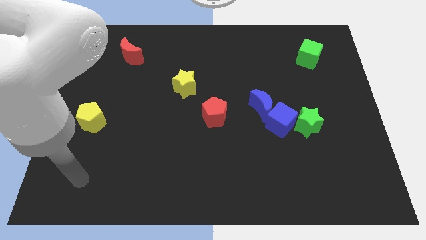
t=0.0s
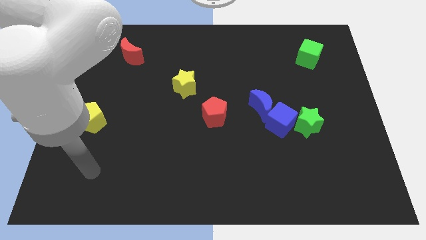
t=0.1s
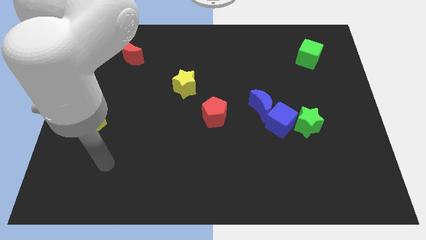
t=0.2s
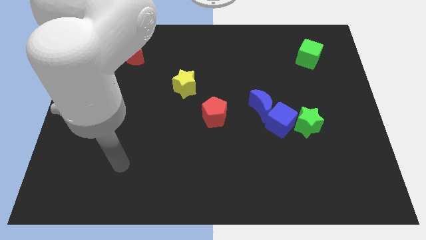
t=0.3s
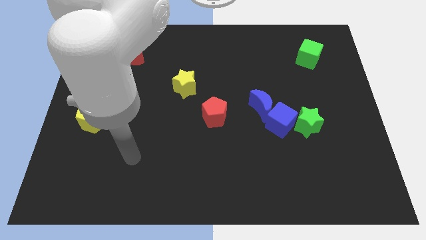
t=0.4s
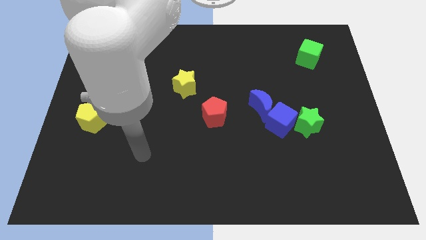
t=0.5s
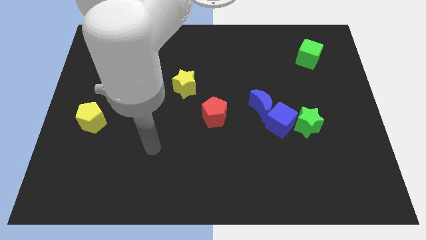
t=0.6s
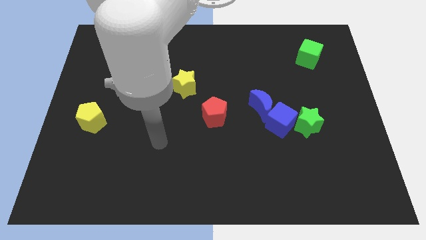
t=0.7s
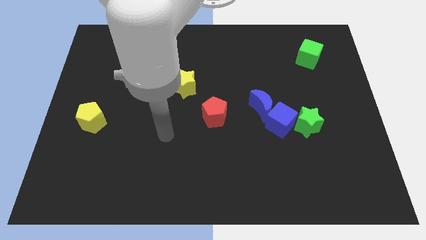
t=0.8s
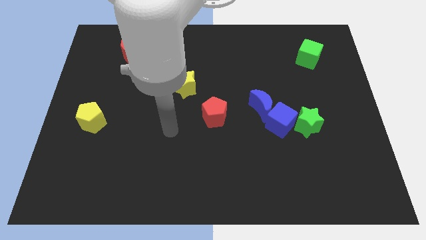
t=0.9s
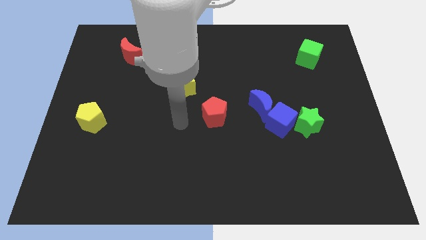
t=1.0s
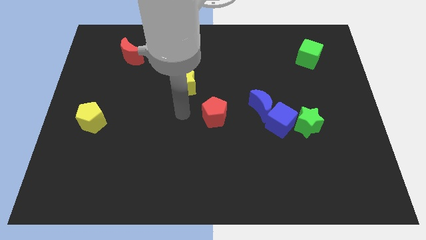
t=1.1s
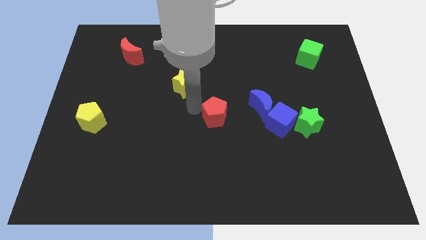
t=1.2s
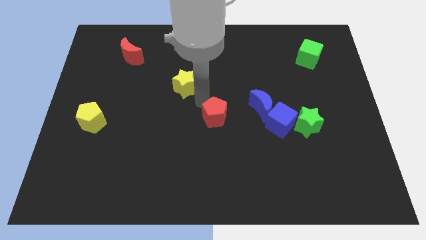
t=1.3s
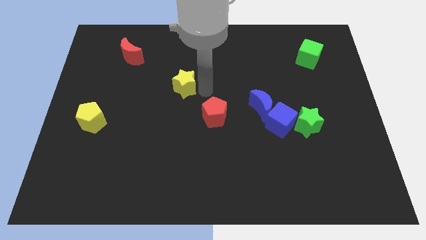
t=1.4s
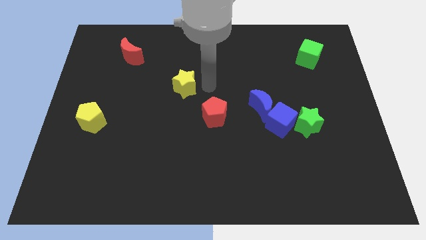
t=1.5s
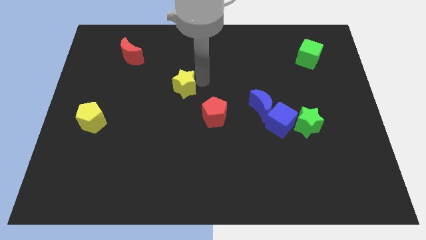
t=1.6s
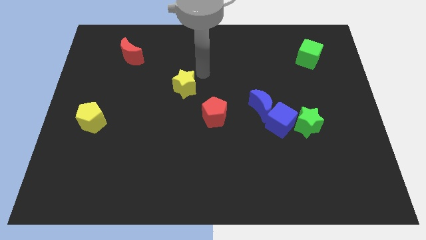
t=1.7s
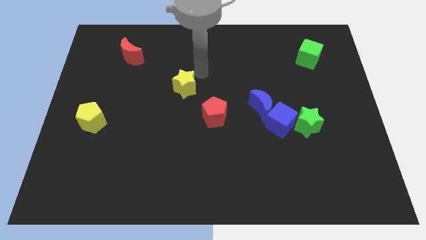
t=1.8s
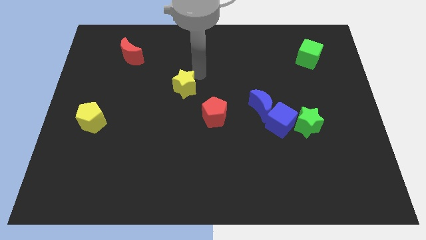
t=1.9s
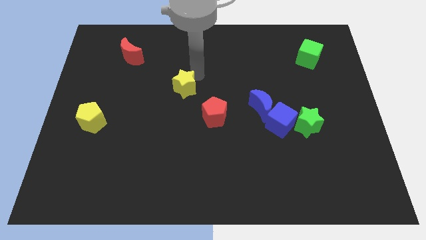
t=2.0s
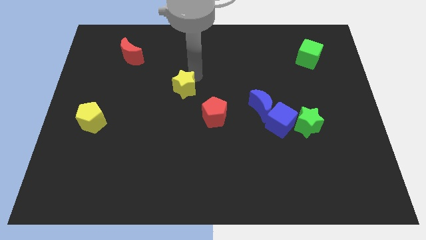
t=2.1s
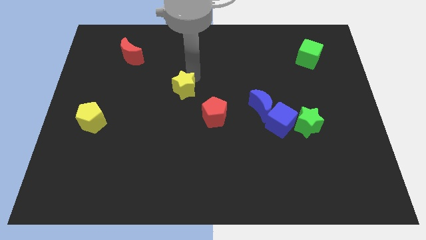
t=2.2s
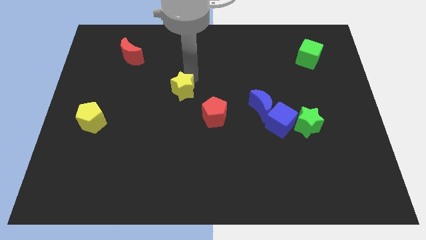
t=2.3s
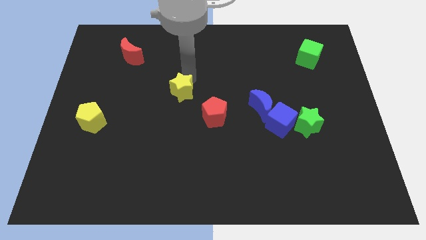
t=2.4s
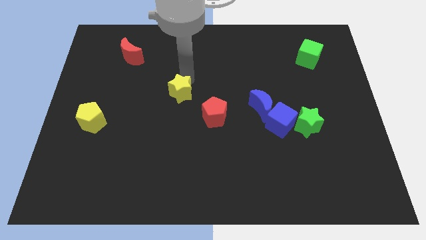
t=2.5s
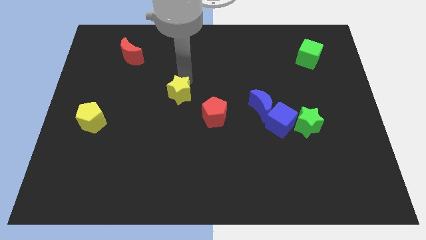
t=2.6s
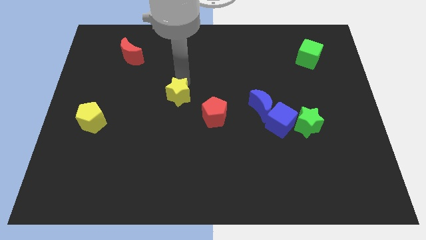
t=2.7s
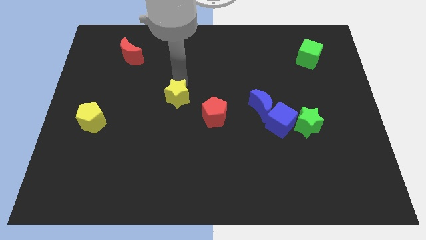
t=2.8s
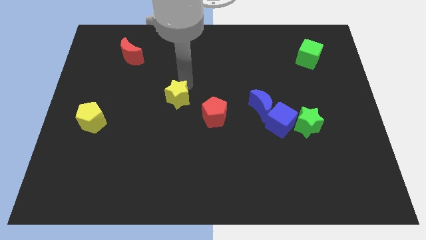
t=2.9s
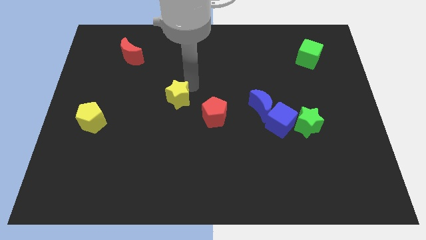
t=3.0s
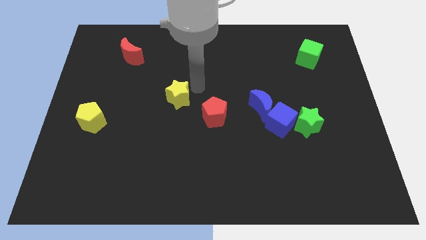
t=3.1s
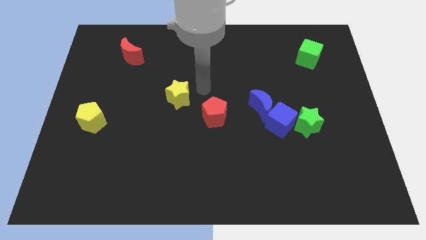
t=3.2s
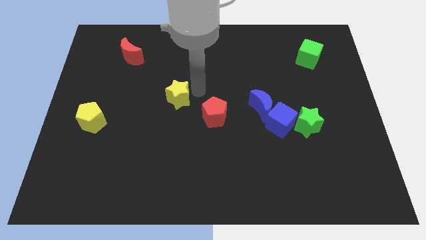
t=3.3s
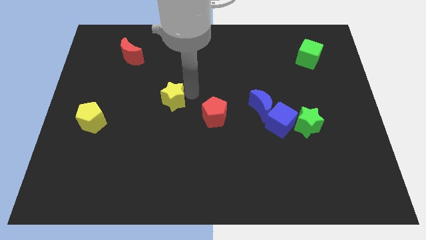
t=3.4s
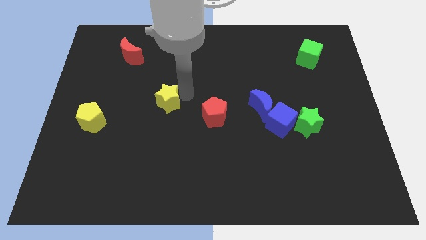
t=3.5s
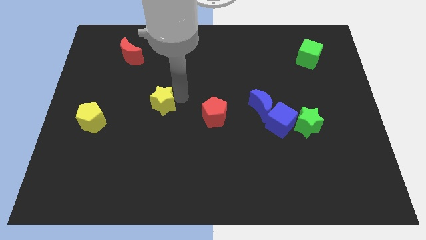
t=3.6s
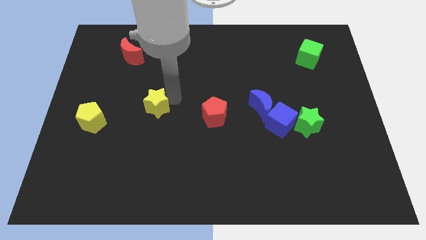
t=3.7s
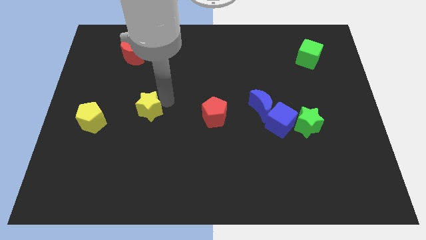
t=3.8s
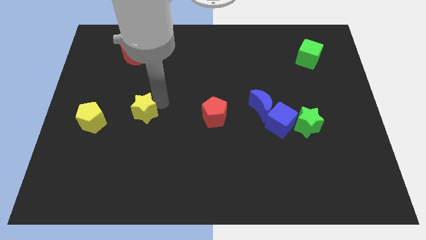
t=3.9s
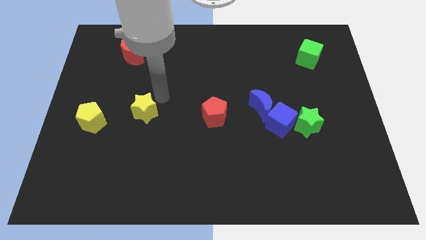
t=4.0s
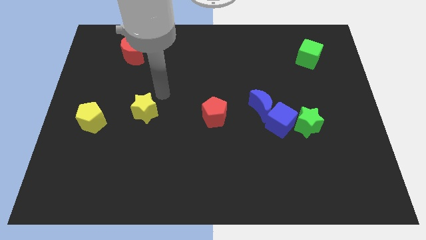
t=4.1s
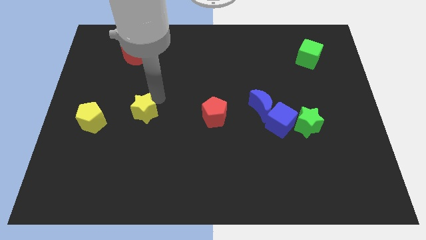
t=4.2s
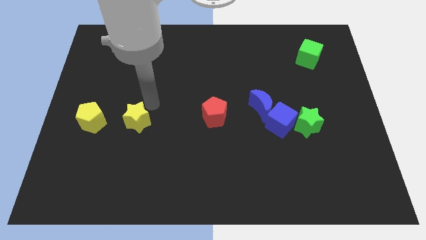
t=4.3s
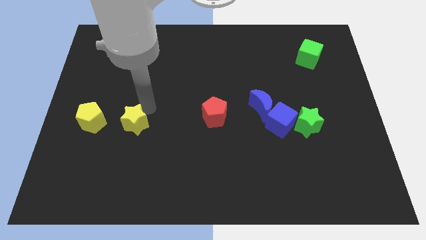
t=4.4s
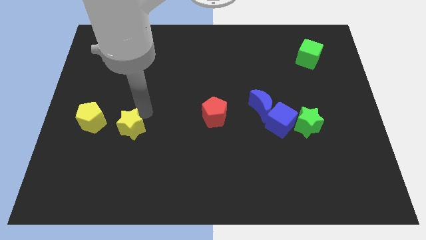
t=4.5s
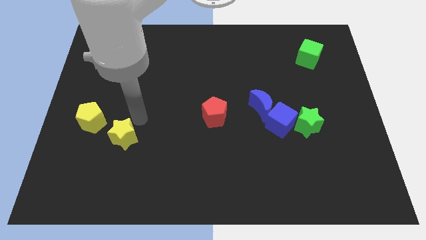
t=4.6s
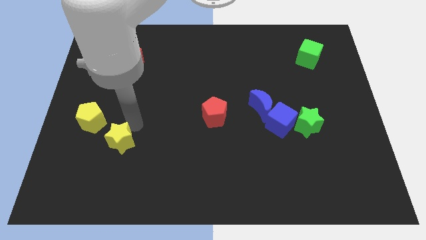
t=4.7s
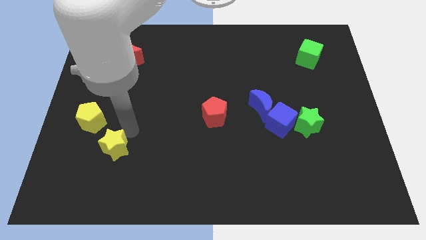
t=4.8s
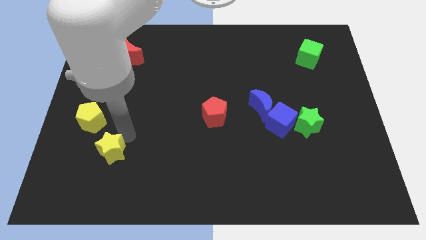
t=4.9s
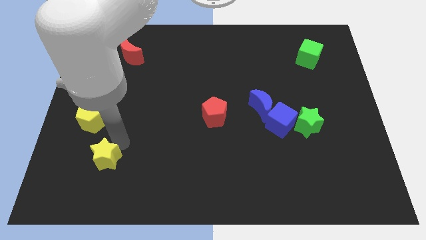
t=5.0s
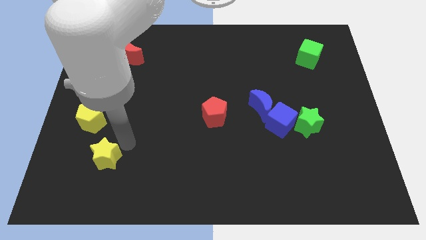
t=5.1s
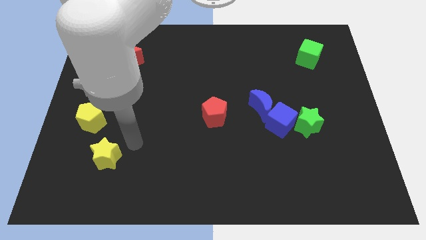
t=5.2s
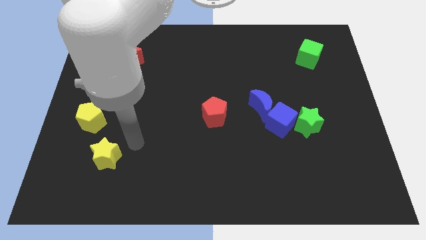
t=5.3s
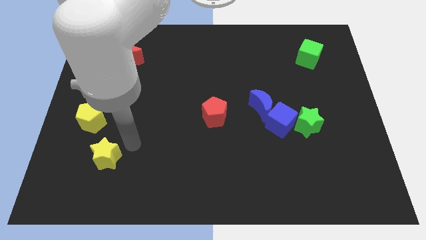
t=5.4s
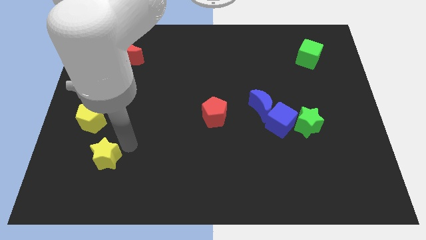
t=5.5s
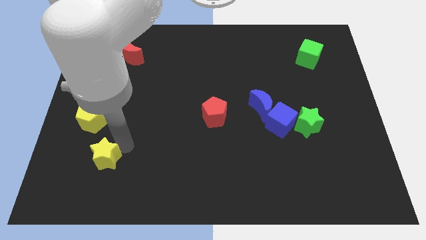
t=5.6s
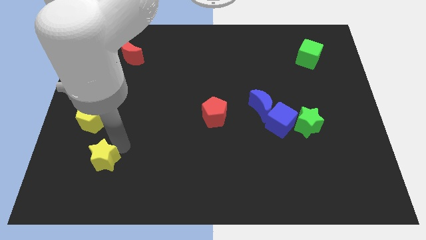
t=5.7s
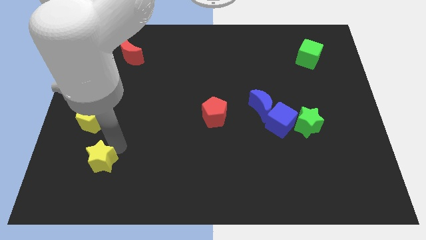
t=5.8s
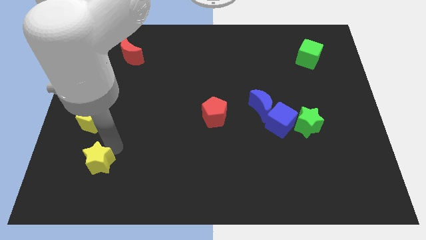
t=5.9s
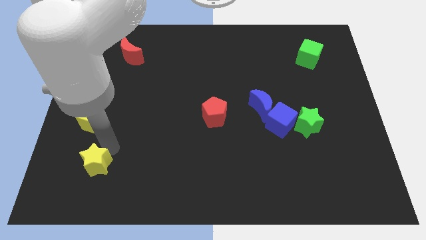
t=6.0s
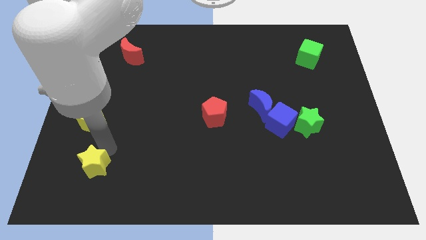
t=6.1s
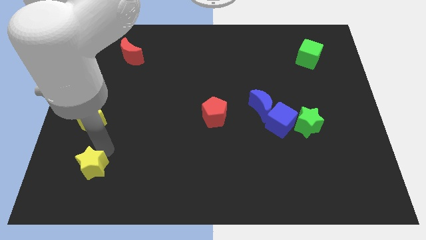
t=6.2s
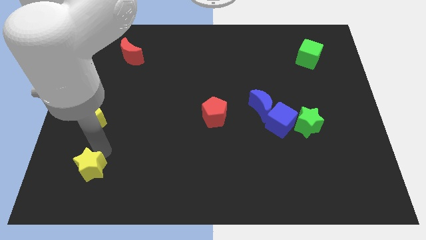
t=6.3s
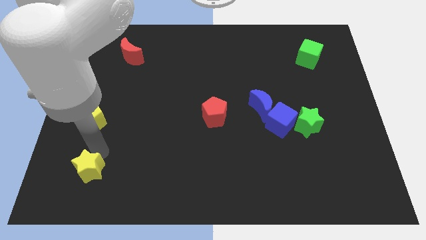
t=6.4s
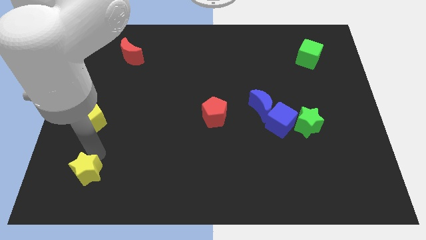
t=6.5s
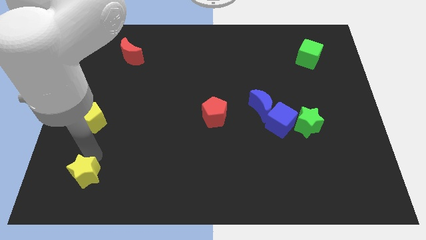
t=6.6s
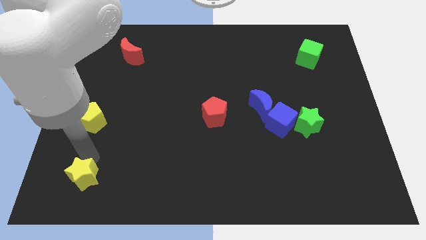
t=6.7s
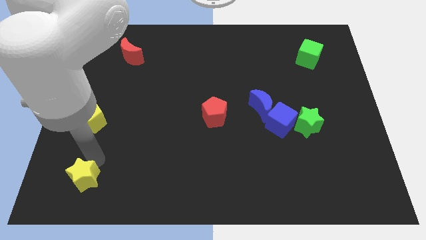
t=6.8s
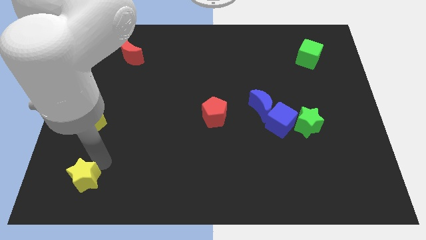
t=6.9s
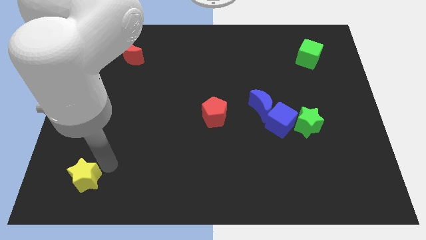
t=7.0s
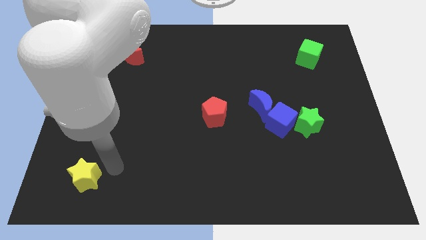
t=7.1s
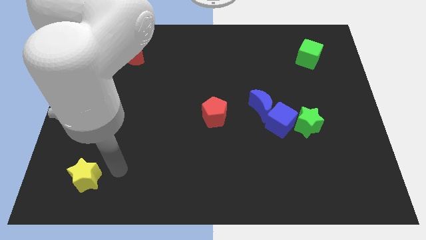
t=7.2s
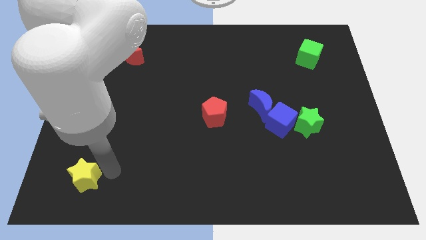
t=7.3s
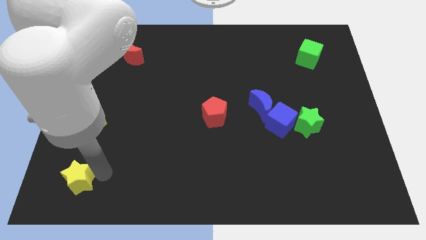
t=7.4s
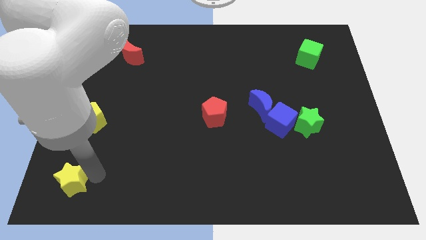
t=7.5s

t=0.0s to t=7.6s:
put the yellow star to the bottom left of the board
